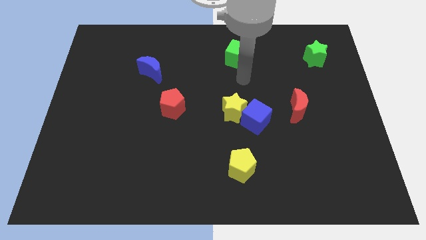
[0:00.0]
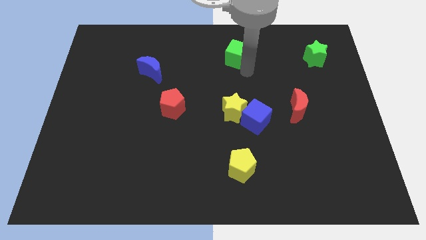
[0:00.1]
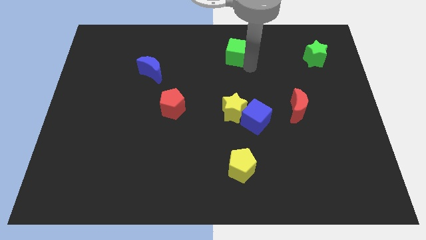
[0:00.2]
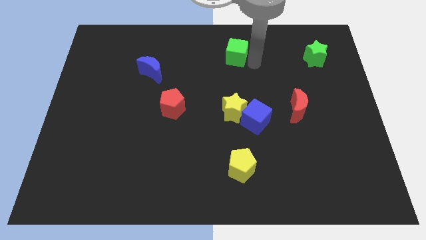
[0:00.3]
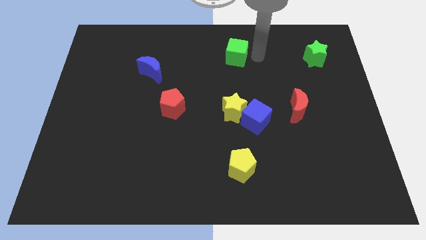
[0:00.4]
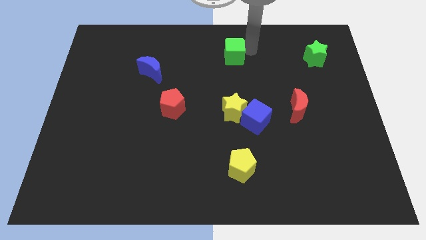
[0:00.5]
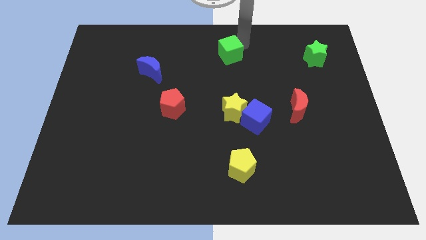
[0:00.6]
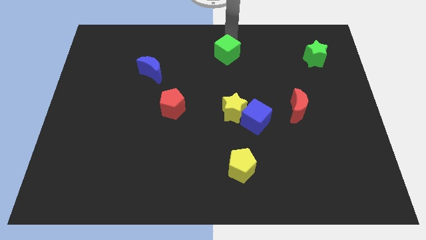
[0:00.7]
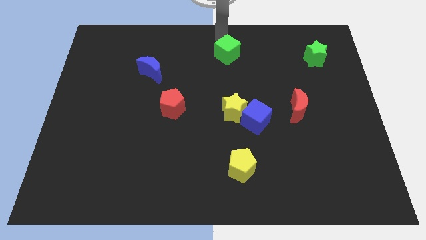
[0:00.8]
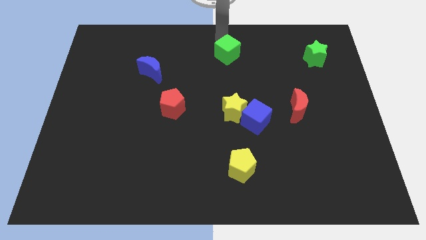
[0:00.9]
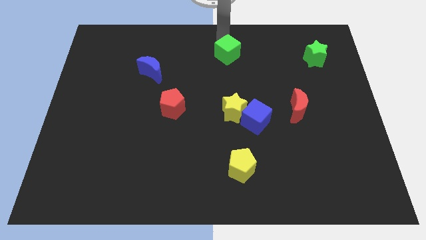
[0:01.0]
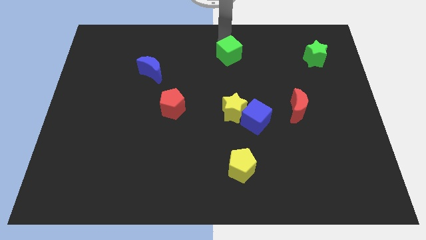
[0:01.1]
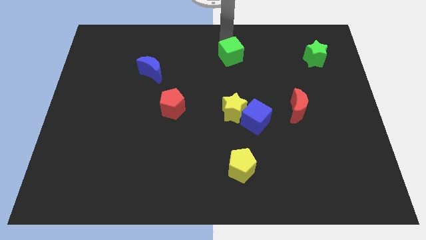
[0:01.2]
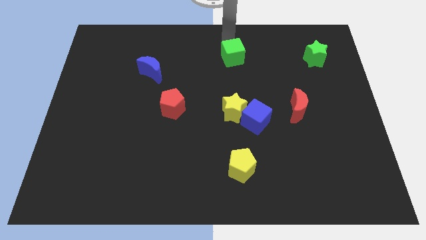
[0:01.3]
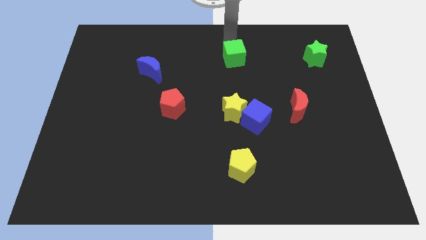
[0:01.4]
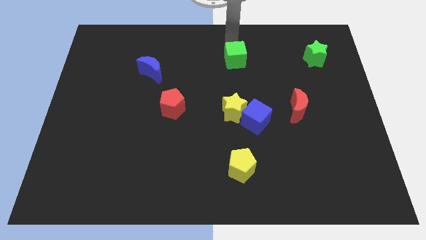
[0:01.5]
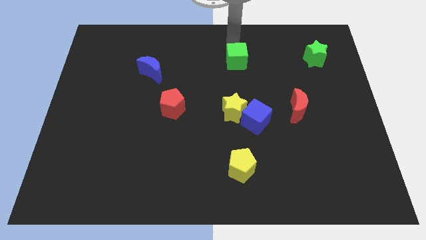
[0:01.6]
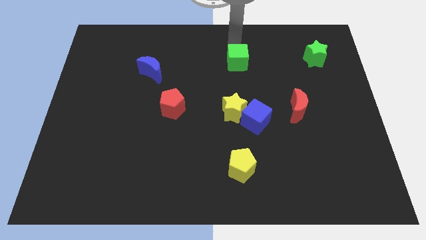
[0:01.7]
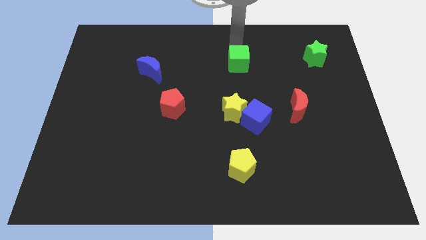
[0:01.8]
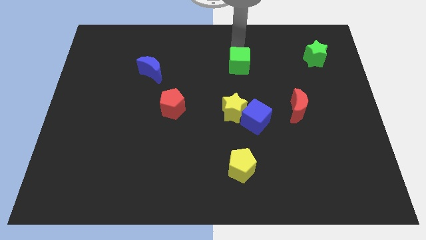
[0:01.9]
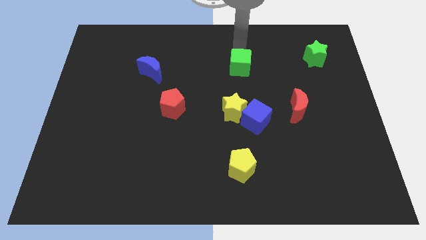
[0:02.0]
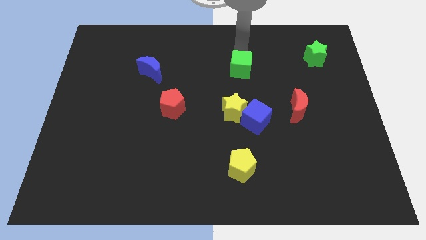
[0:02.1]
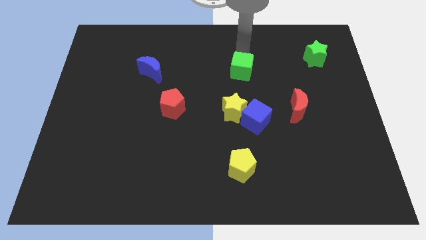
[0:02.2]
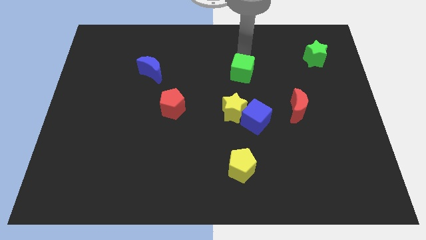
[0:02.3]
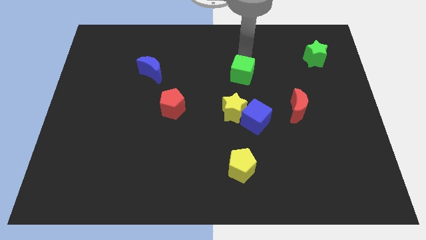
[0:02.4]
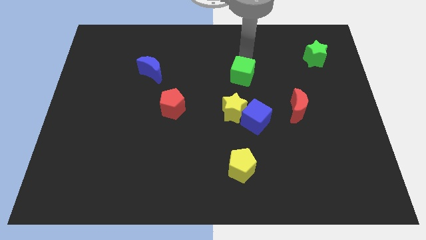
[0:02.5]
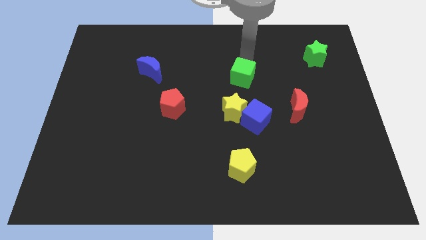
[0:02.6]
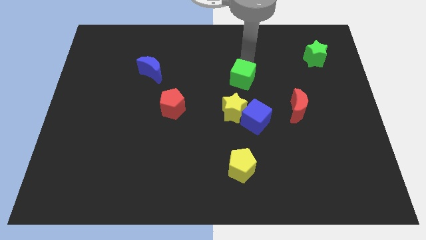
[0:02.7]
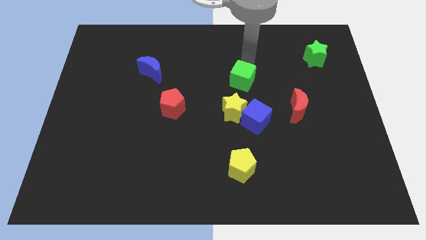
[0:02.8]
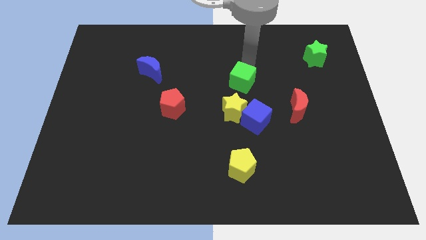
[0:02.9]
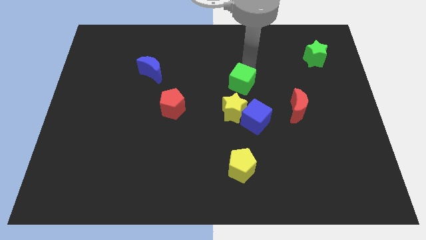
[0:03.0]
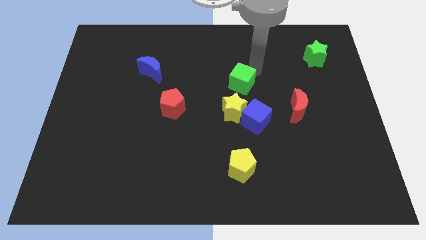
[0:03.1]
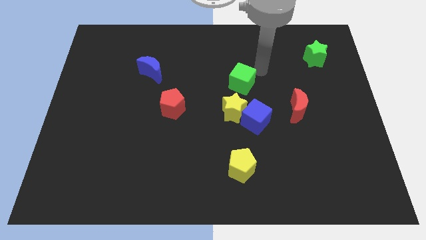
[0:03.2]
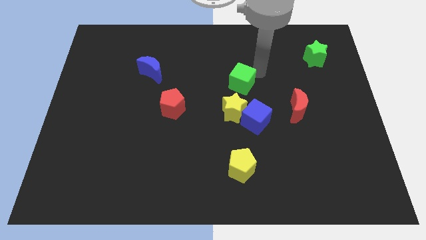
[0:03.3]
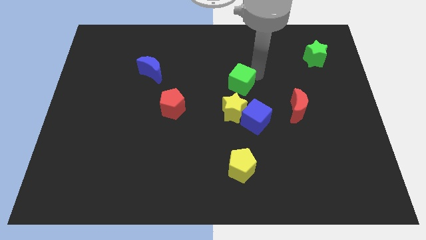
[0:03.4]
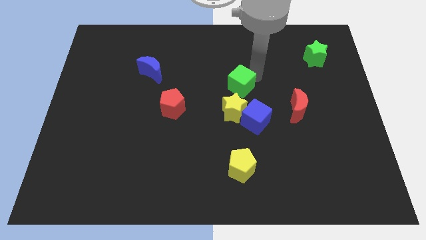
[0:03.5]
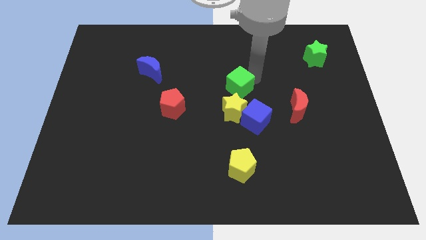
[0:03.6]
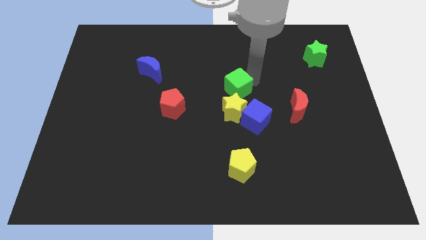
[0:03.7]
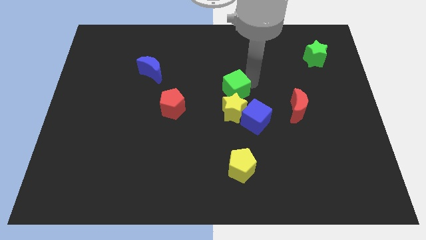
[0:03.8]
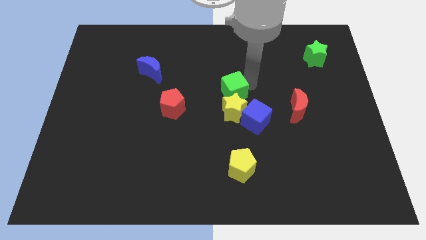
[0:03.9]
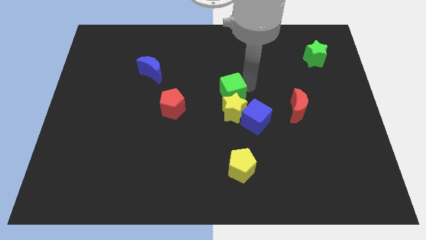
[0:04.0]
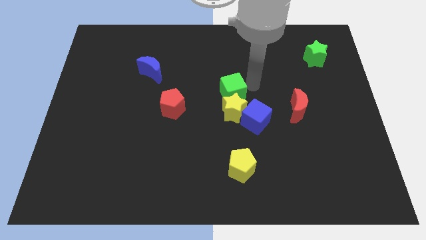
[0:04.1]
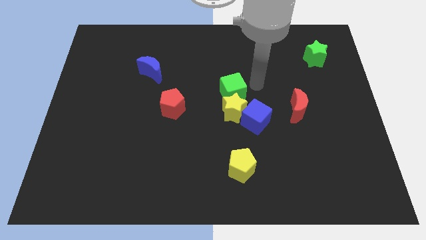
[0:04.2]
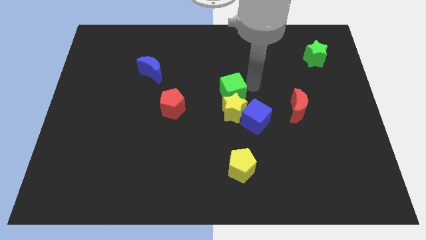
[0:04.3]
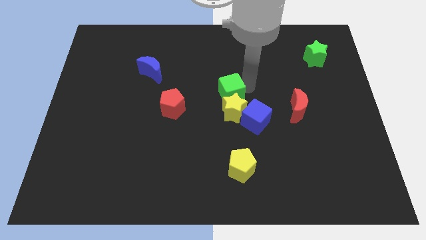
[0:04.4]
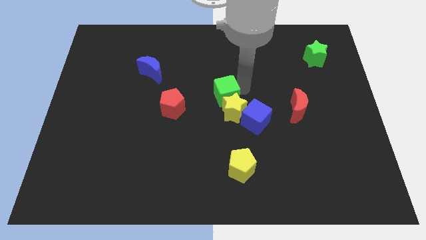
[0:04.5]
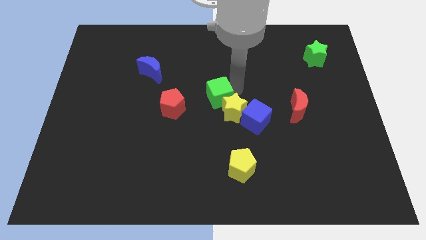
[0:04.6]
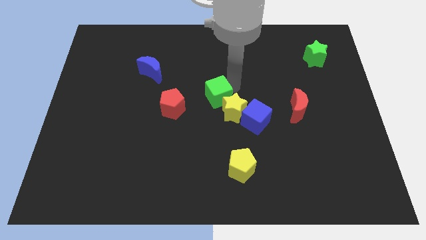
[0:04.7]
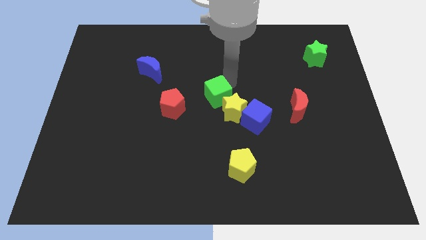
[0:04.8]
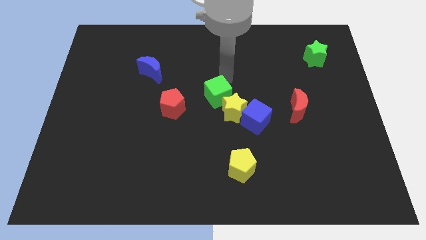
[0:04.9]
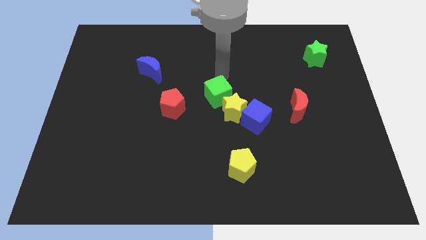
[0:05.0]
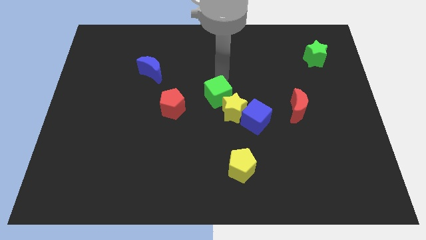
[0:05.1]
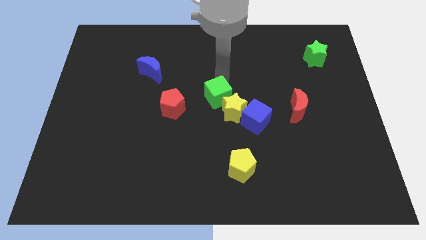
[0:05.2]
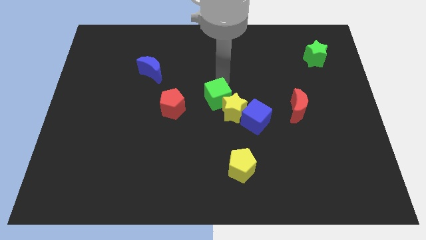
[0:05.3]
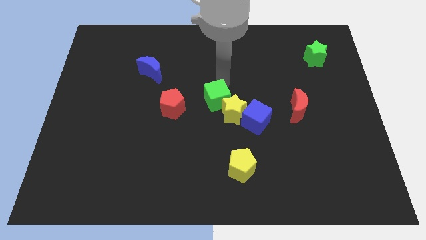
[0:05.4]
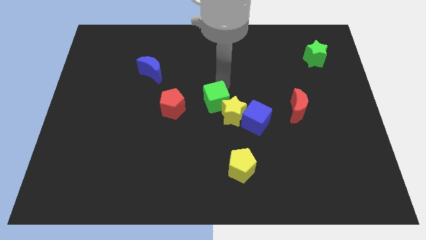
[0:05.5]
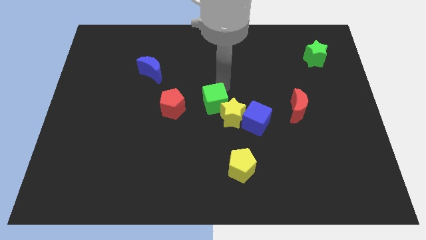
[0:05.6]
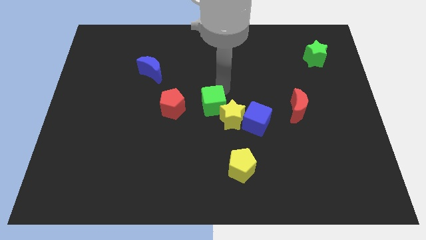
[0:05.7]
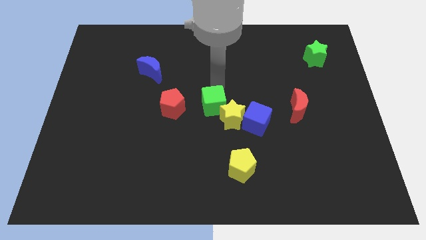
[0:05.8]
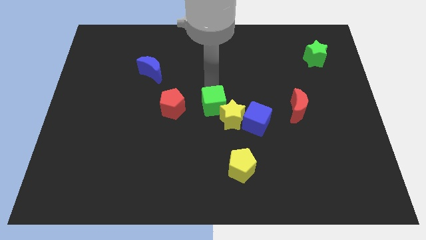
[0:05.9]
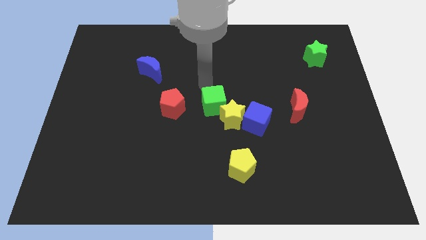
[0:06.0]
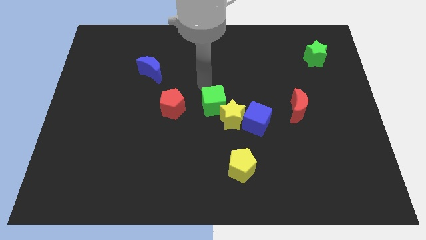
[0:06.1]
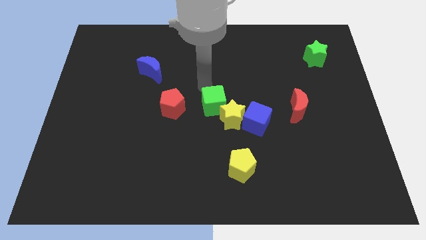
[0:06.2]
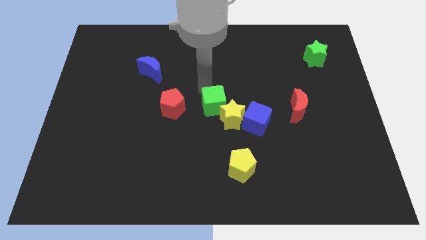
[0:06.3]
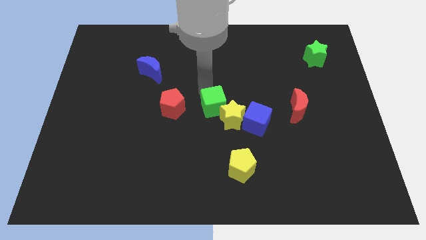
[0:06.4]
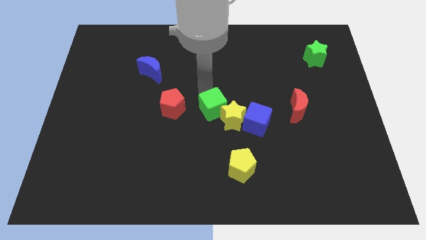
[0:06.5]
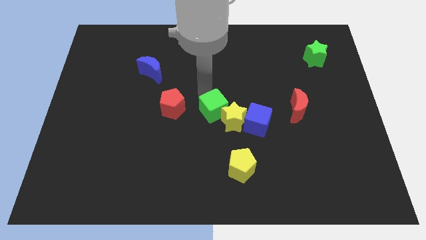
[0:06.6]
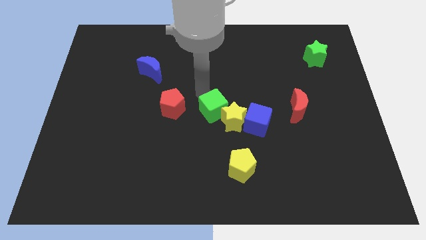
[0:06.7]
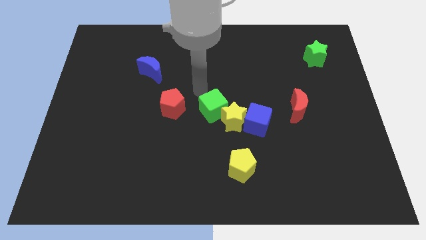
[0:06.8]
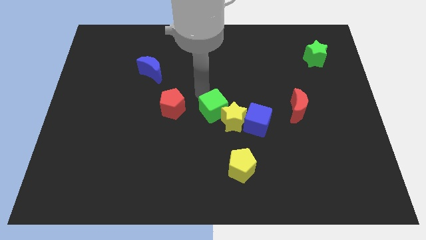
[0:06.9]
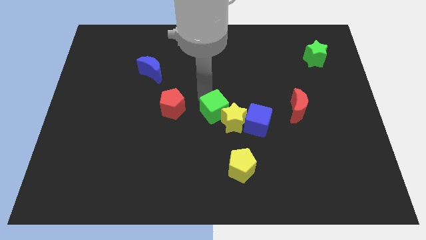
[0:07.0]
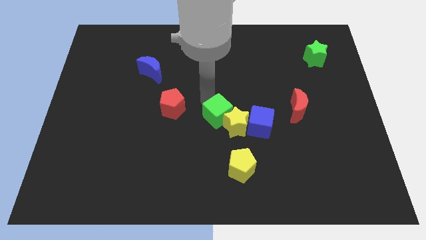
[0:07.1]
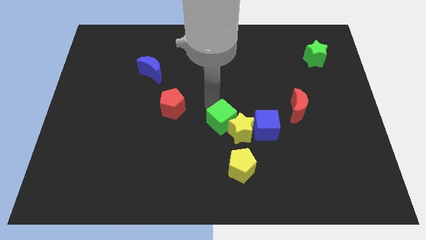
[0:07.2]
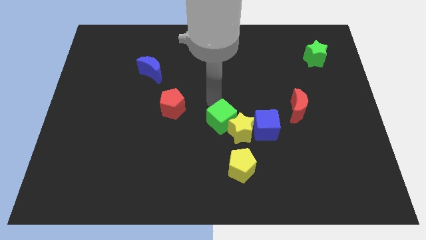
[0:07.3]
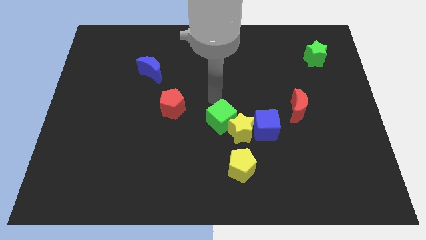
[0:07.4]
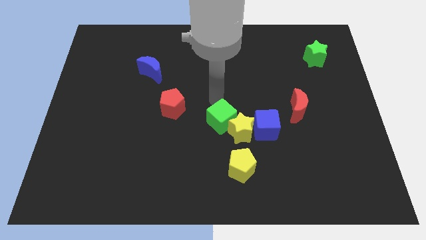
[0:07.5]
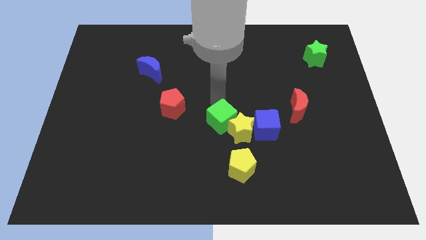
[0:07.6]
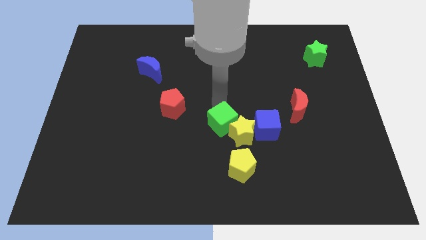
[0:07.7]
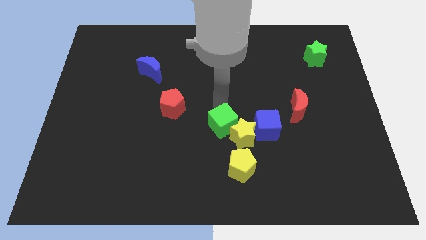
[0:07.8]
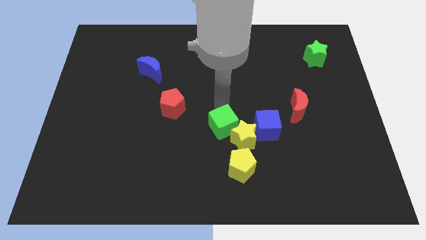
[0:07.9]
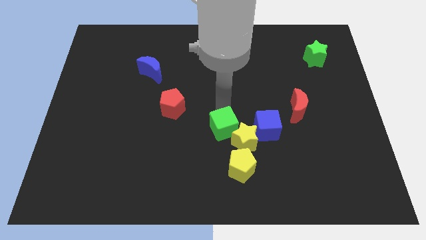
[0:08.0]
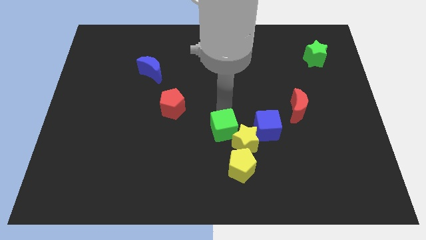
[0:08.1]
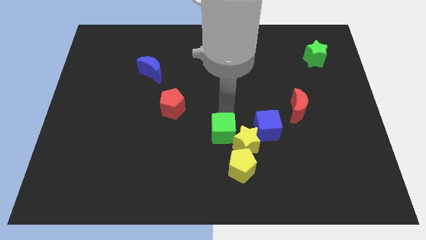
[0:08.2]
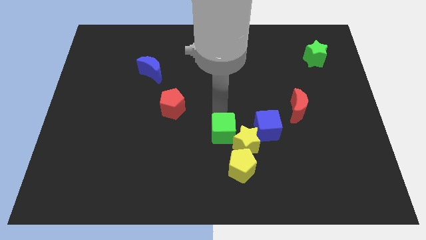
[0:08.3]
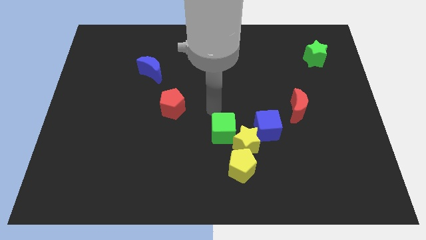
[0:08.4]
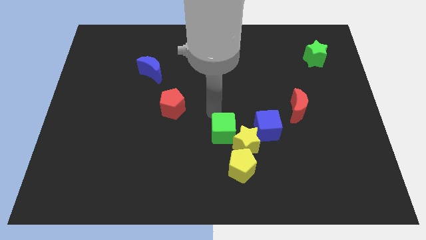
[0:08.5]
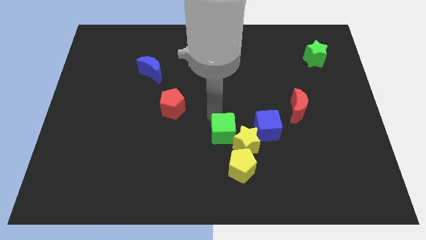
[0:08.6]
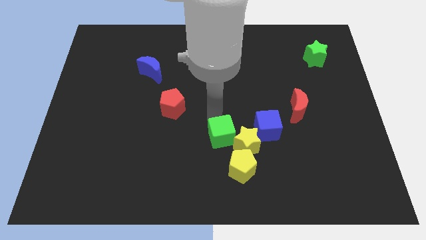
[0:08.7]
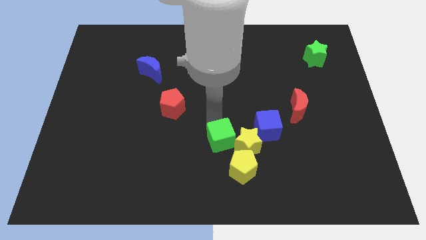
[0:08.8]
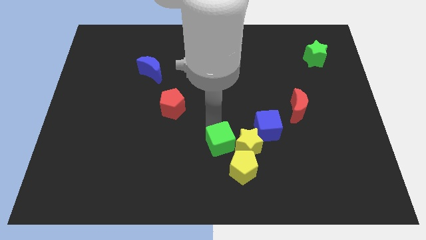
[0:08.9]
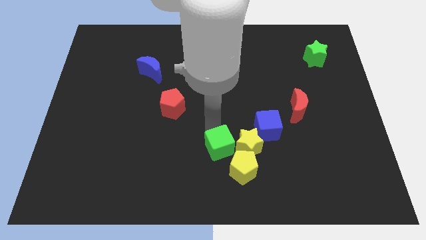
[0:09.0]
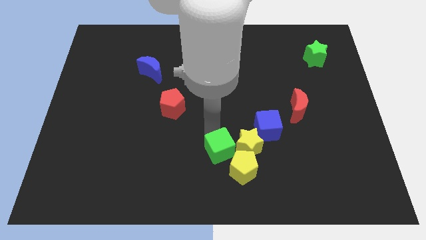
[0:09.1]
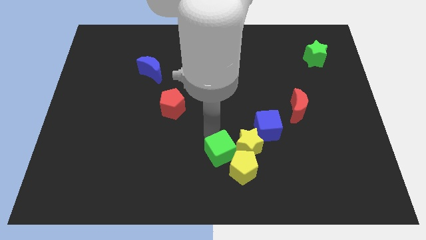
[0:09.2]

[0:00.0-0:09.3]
slide the green cube next to the yellow pentagon
